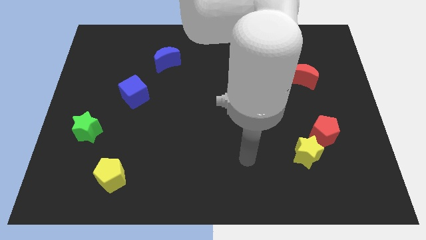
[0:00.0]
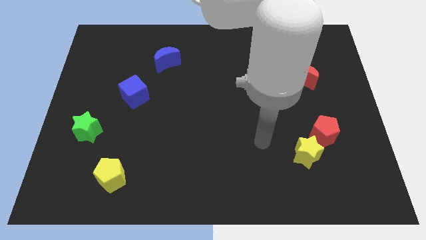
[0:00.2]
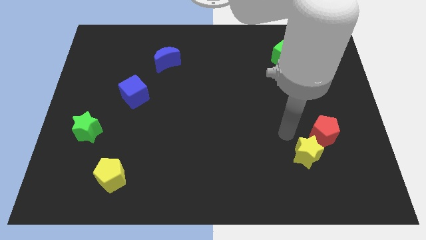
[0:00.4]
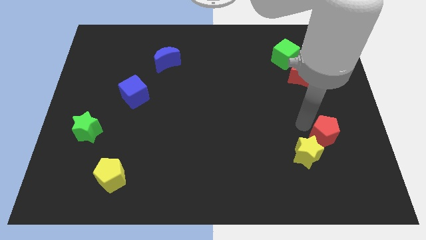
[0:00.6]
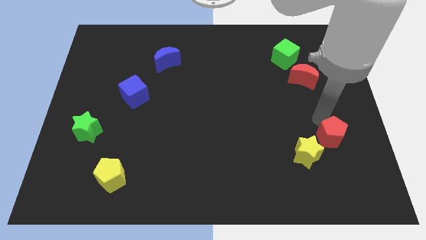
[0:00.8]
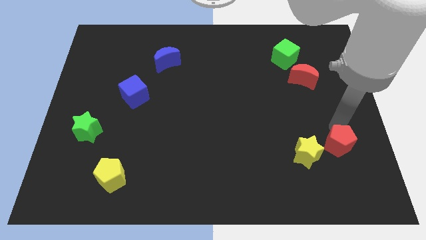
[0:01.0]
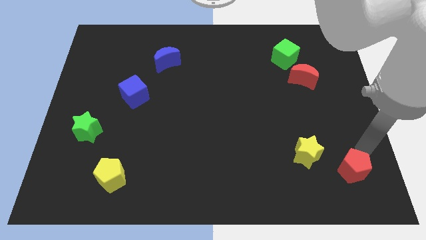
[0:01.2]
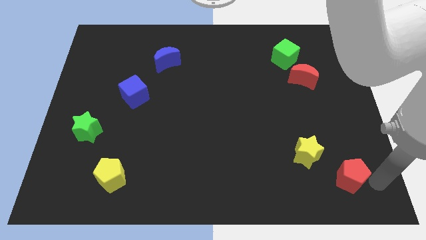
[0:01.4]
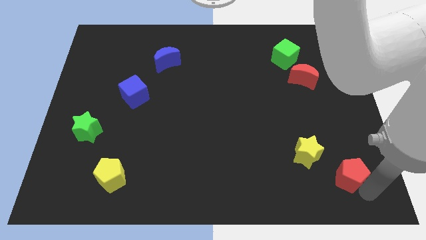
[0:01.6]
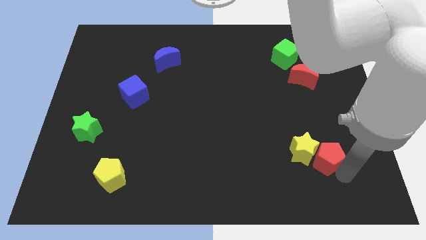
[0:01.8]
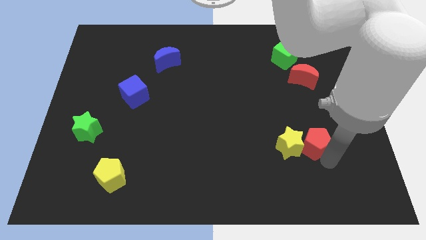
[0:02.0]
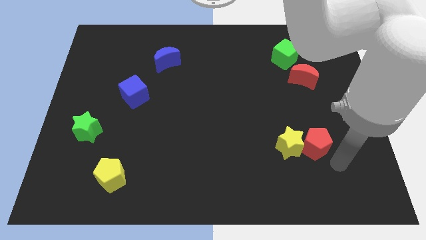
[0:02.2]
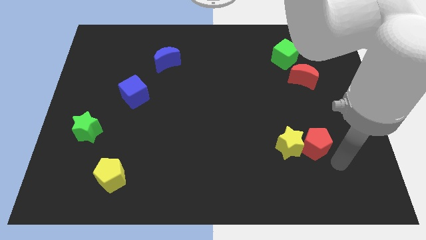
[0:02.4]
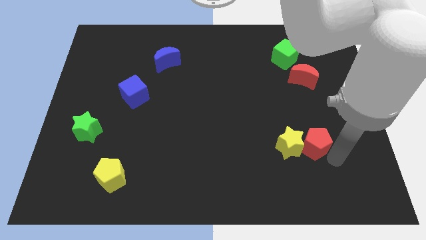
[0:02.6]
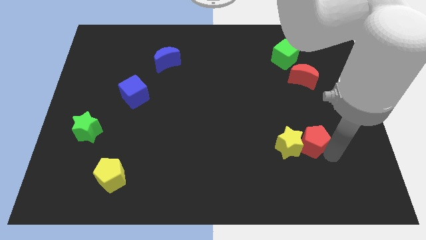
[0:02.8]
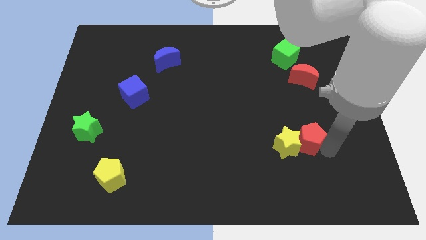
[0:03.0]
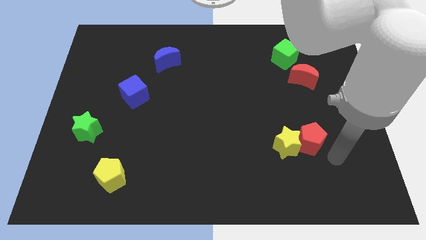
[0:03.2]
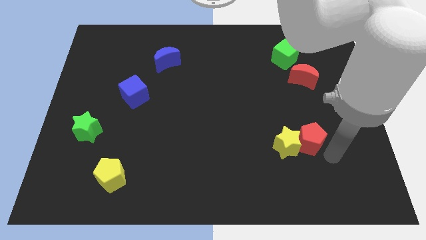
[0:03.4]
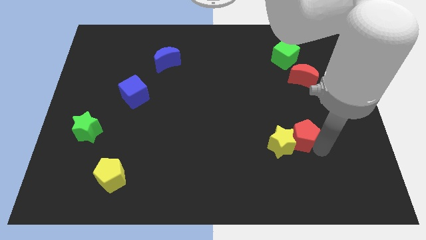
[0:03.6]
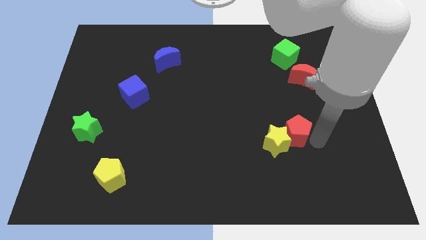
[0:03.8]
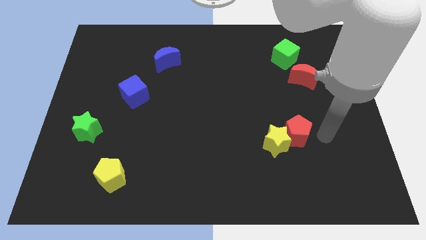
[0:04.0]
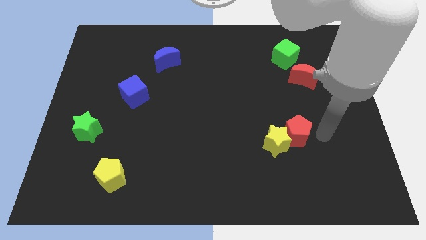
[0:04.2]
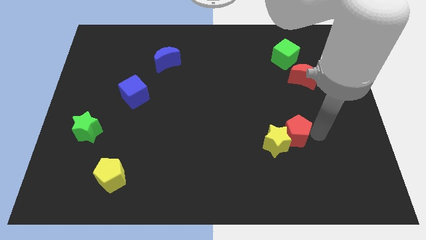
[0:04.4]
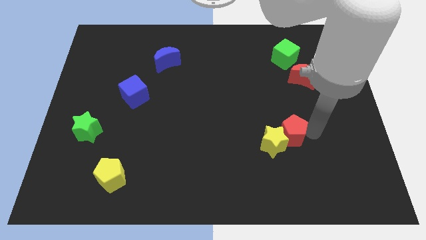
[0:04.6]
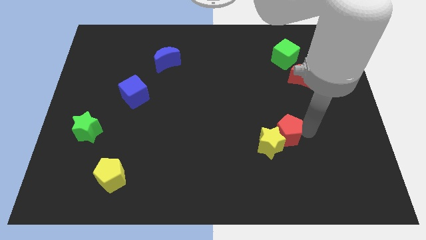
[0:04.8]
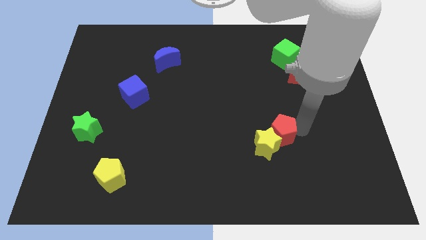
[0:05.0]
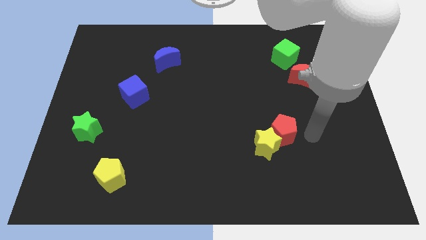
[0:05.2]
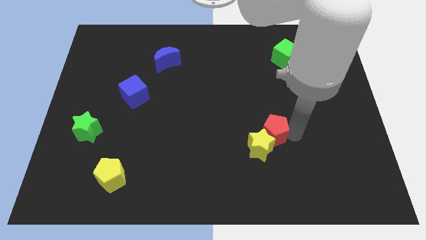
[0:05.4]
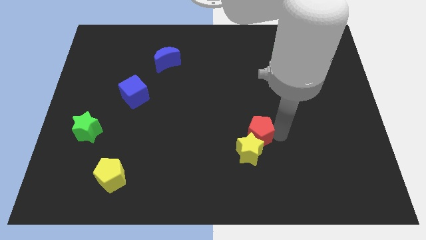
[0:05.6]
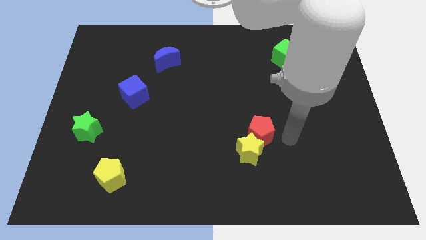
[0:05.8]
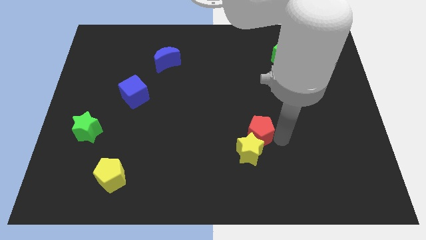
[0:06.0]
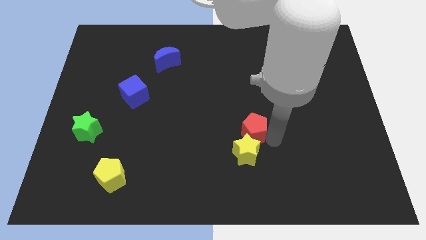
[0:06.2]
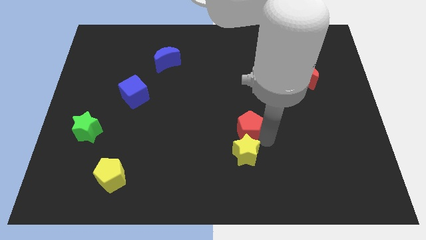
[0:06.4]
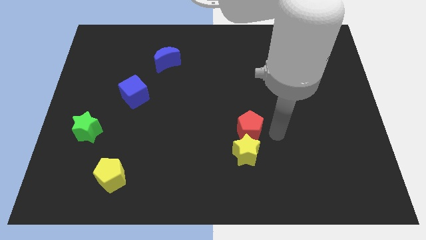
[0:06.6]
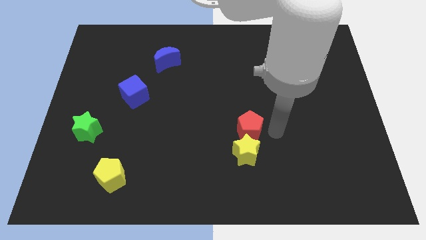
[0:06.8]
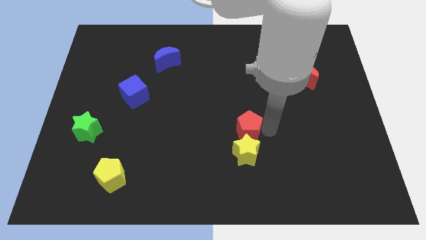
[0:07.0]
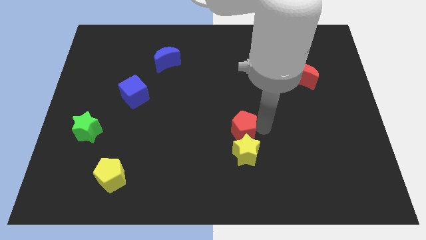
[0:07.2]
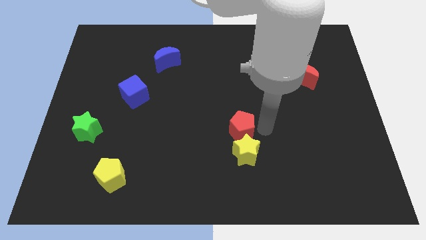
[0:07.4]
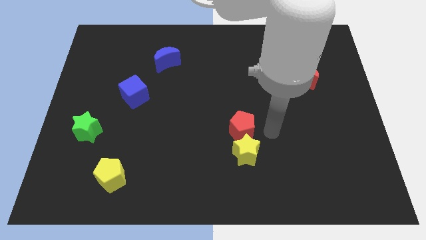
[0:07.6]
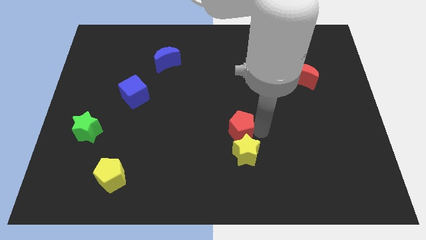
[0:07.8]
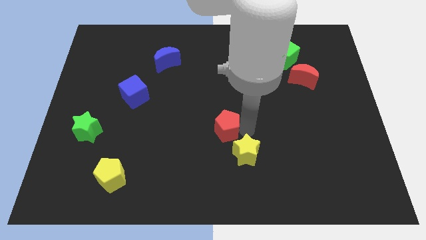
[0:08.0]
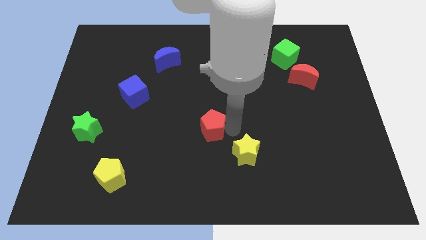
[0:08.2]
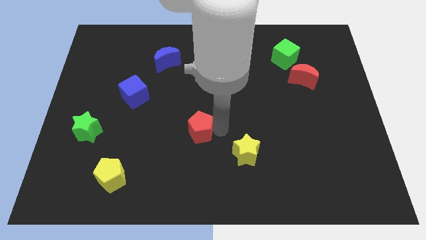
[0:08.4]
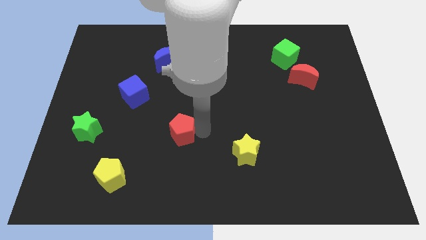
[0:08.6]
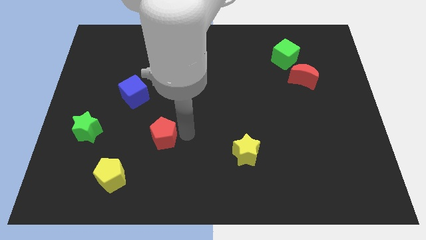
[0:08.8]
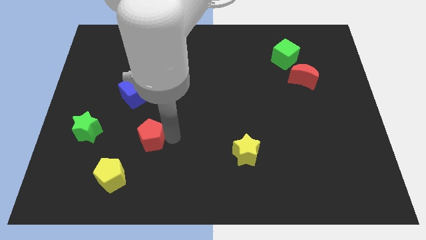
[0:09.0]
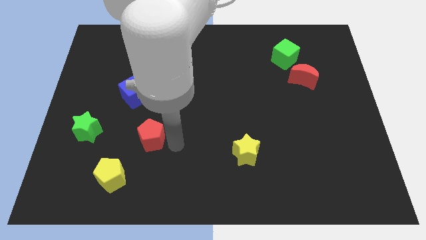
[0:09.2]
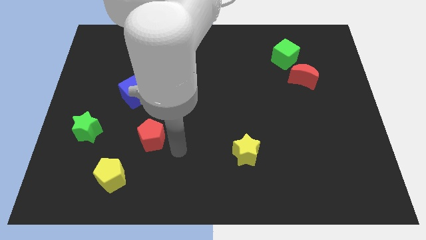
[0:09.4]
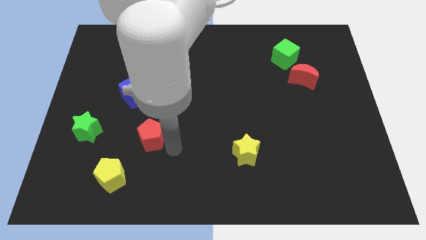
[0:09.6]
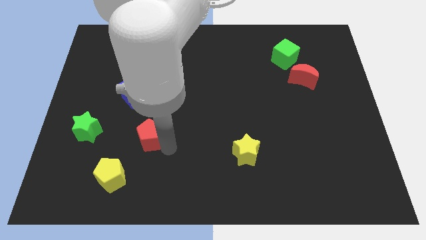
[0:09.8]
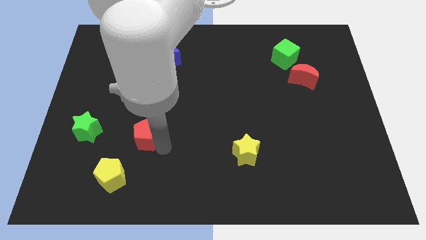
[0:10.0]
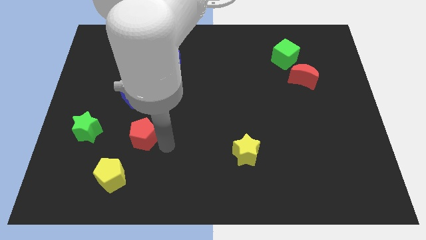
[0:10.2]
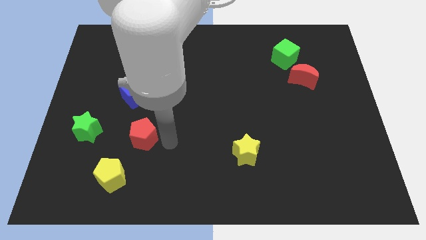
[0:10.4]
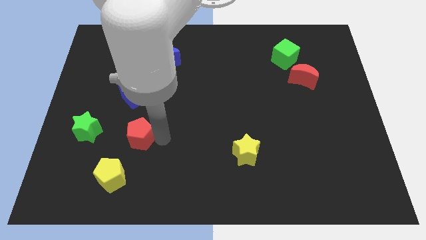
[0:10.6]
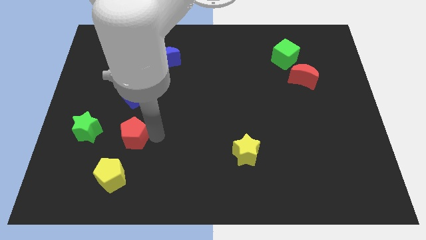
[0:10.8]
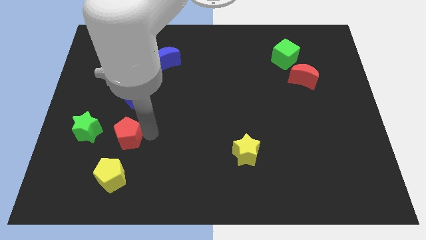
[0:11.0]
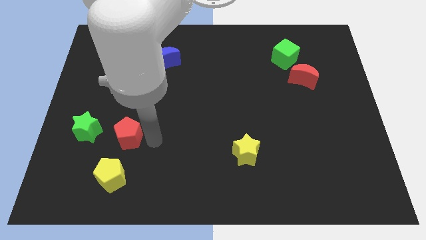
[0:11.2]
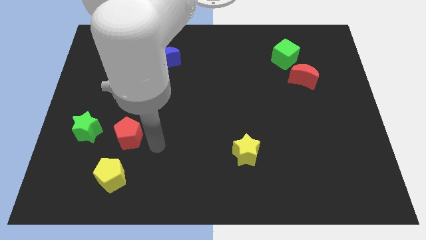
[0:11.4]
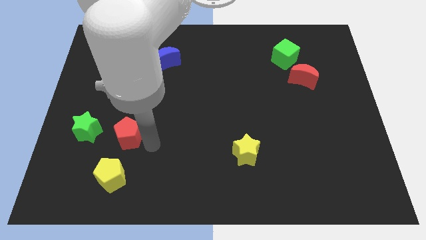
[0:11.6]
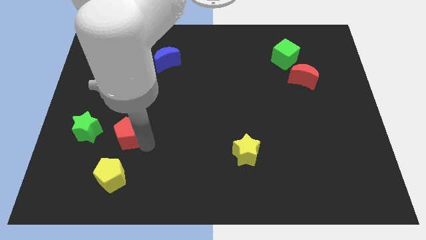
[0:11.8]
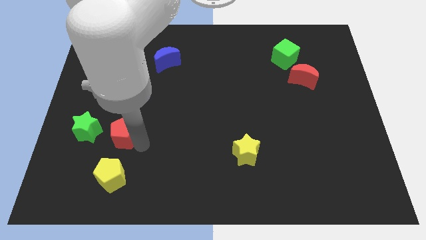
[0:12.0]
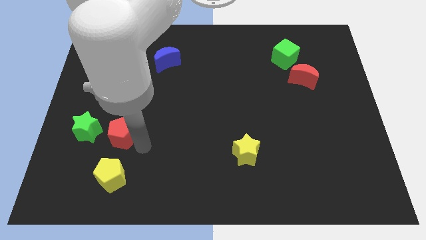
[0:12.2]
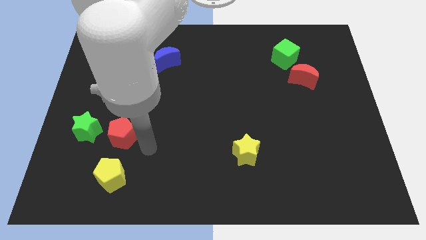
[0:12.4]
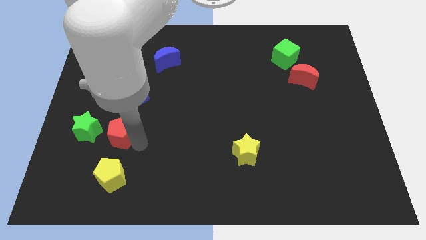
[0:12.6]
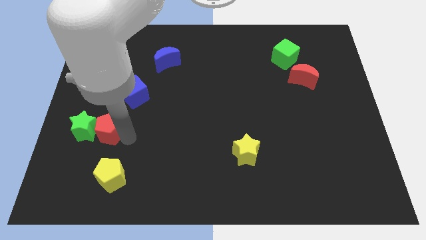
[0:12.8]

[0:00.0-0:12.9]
move the red pentagon close to the green star
